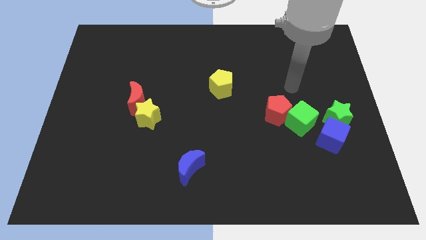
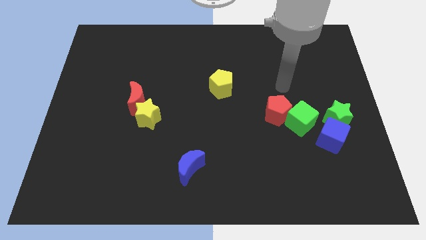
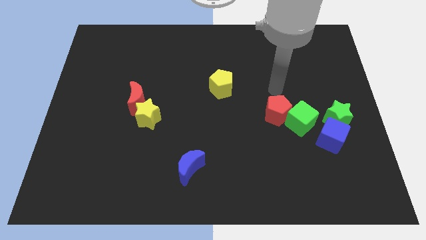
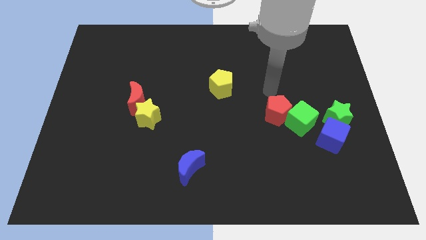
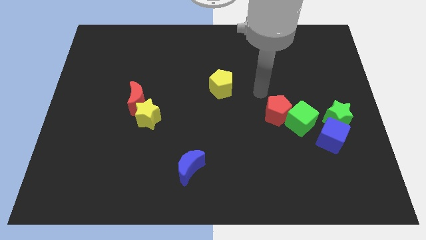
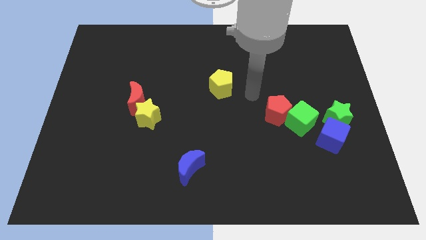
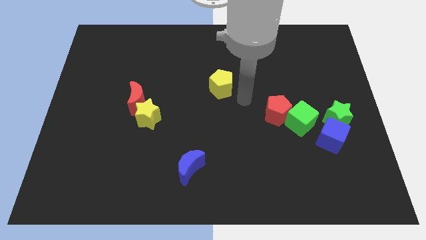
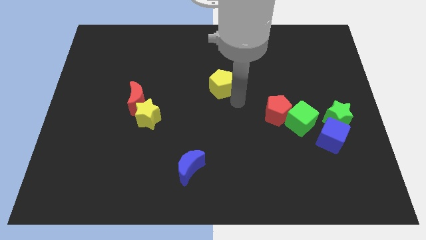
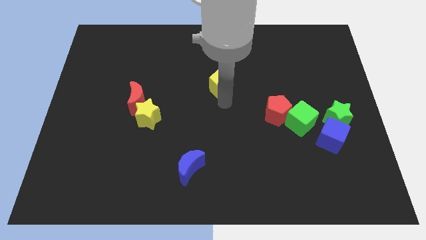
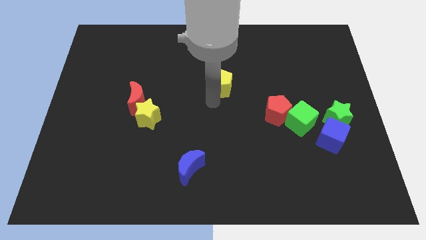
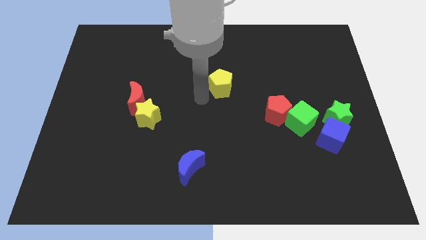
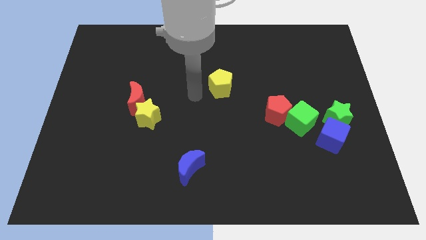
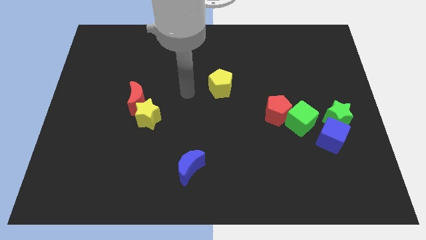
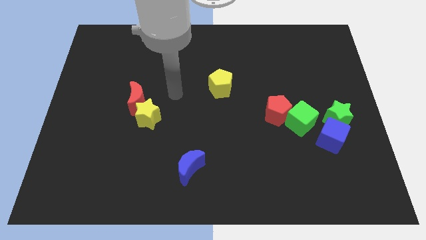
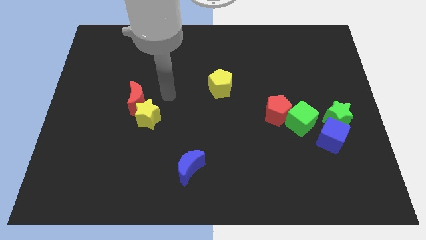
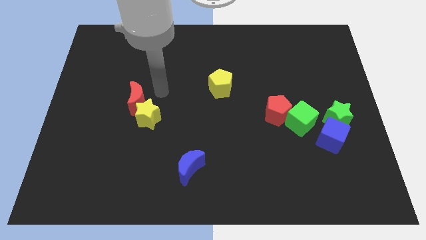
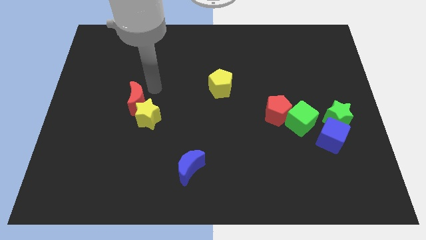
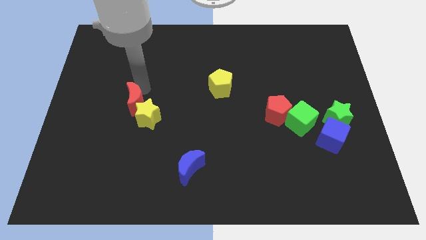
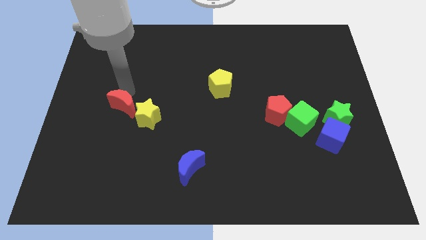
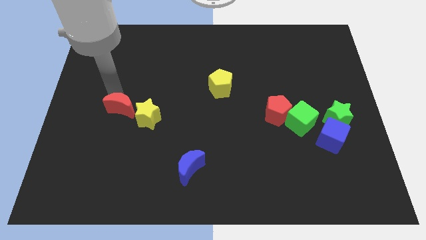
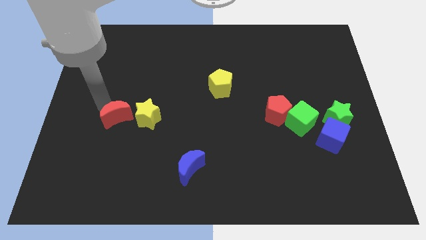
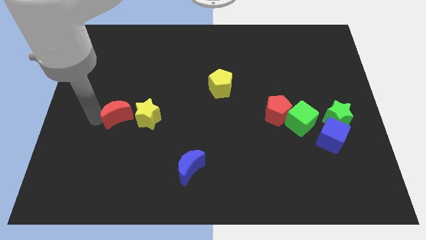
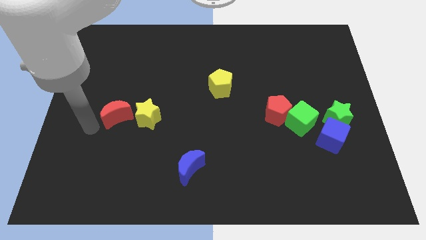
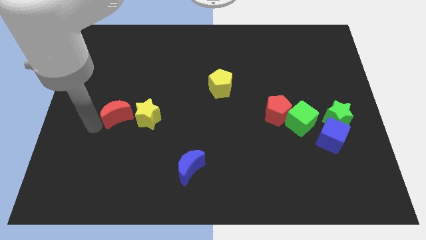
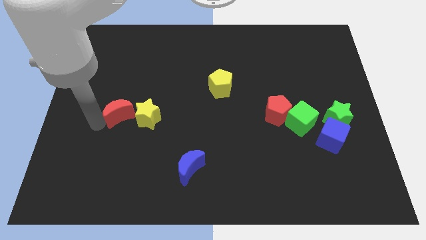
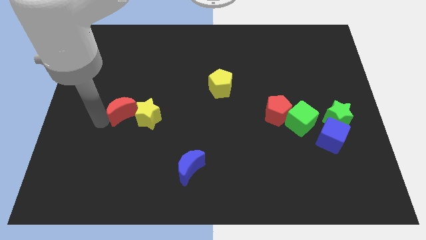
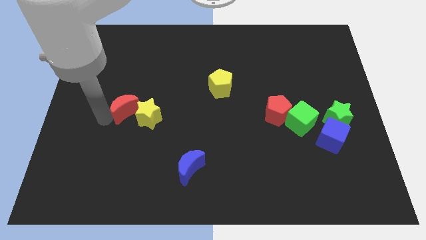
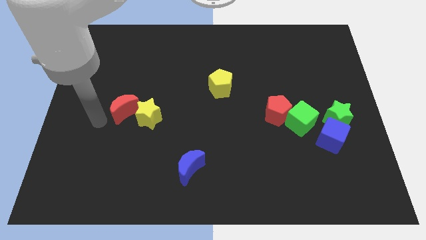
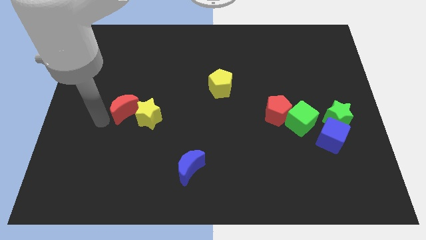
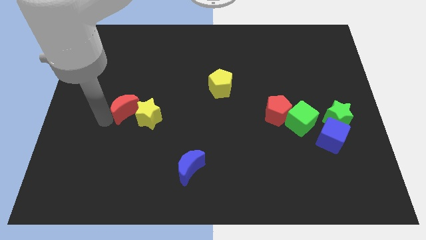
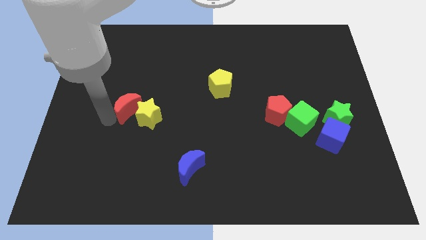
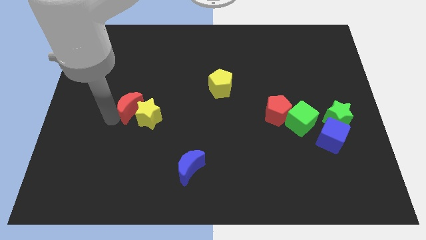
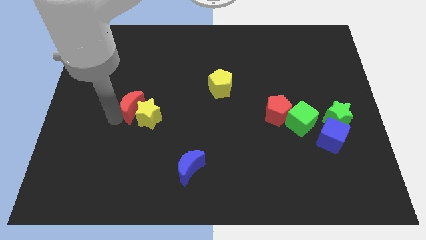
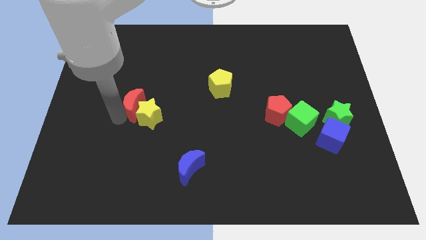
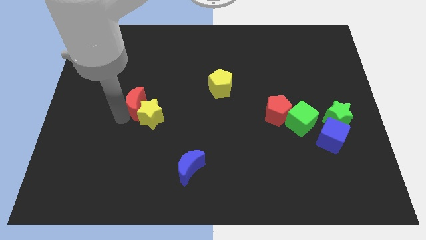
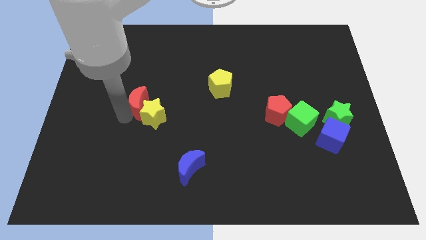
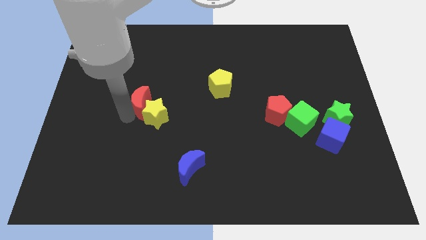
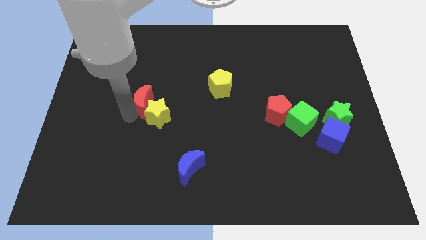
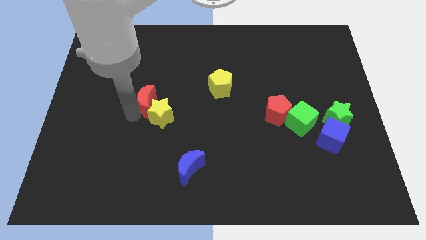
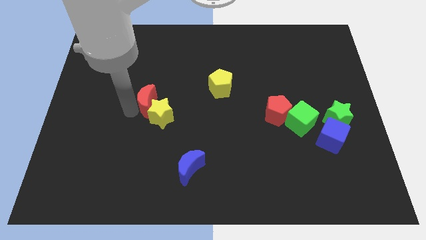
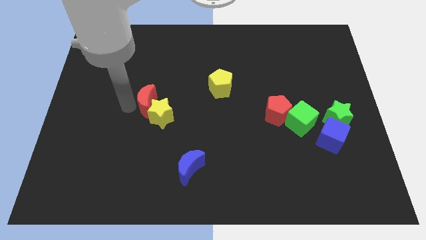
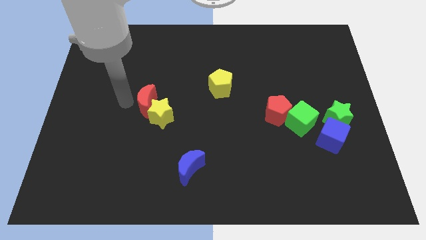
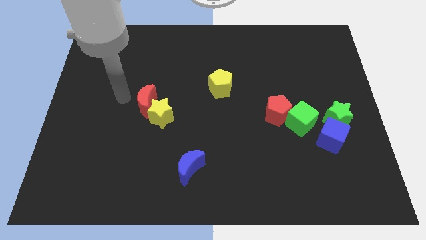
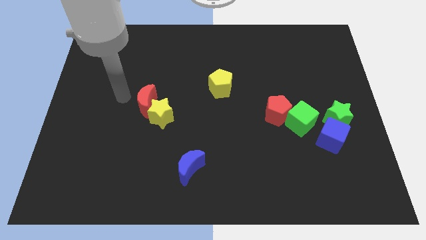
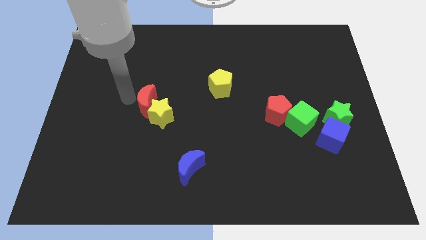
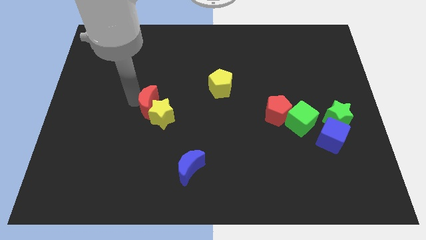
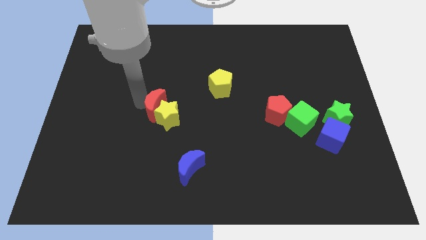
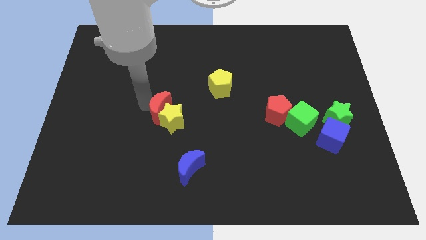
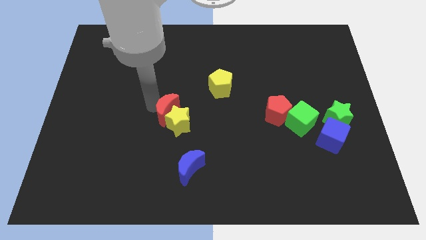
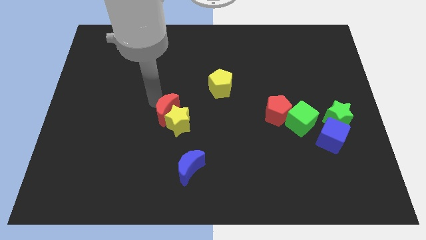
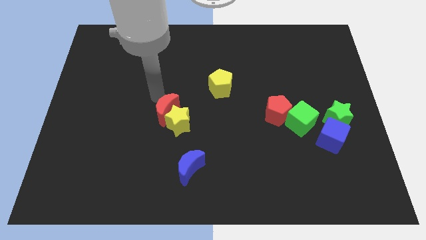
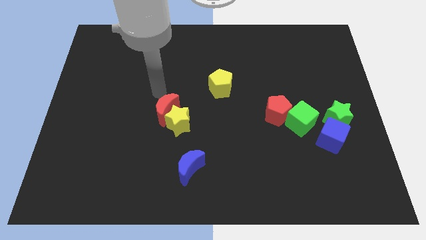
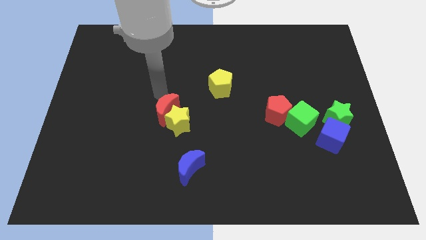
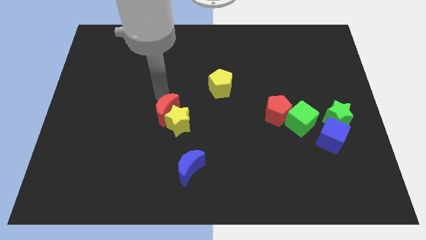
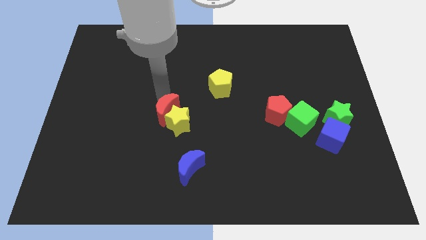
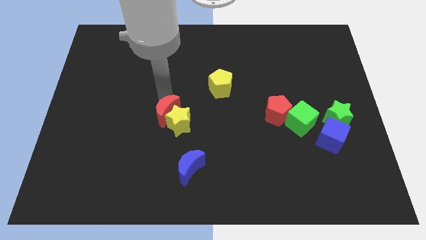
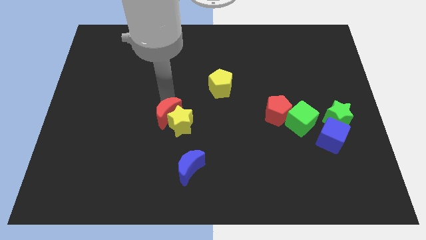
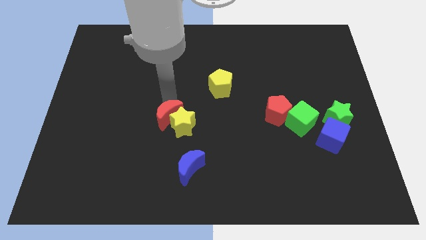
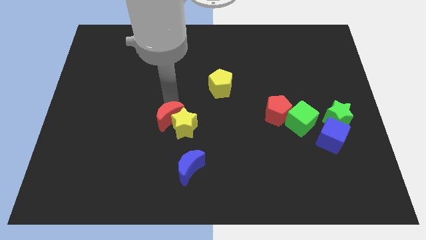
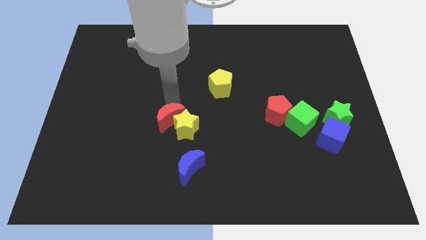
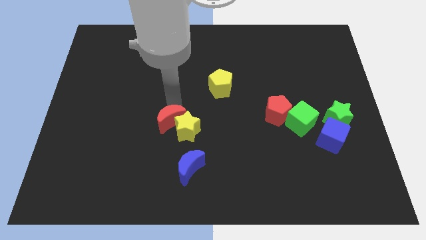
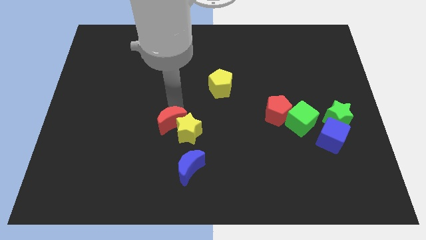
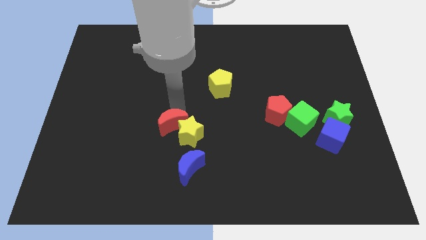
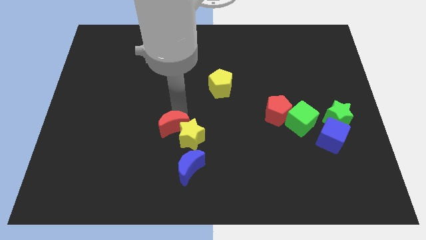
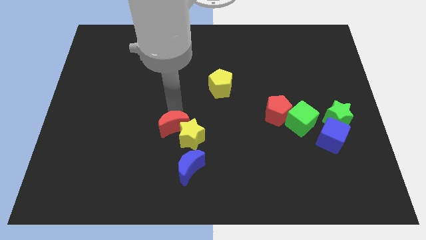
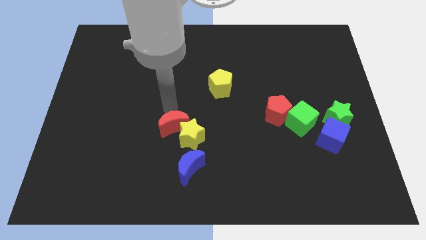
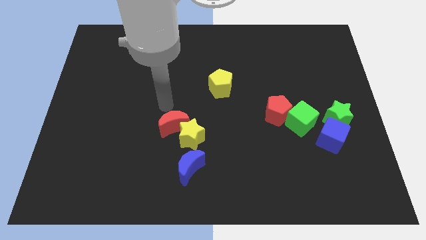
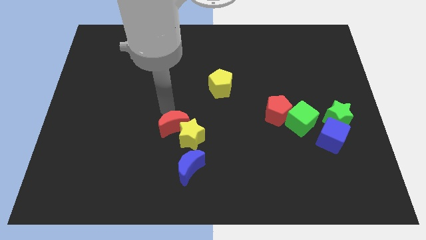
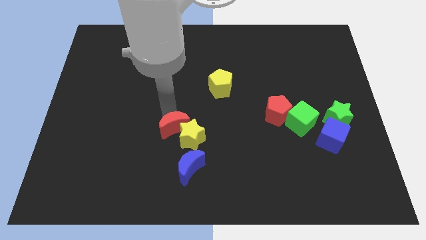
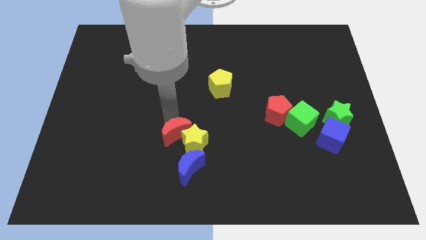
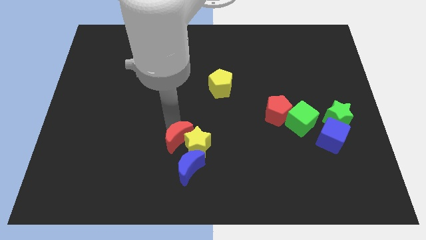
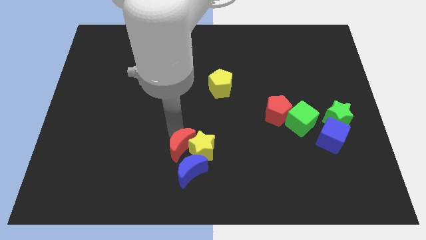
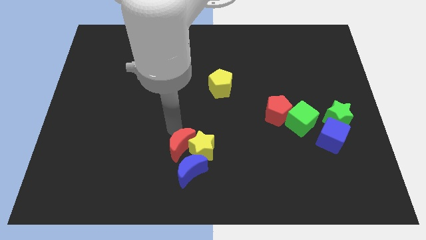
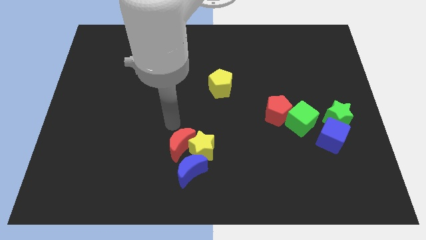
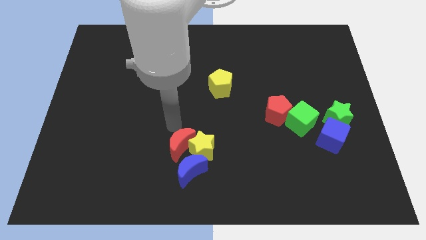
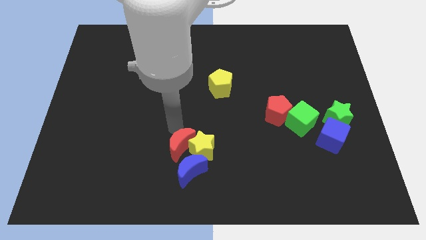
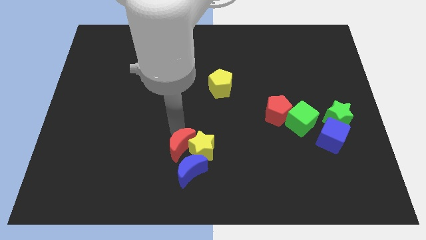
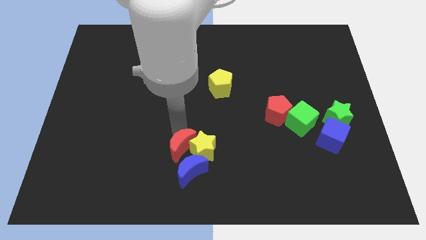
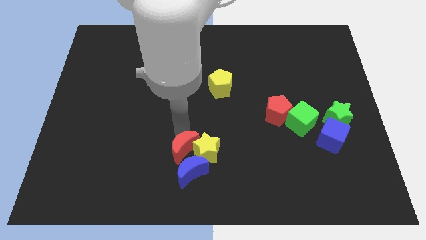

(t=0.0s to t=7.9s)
slide the red moon close to the blue moon
